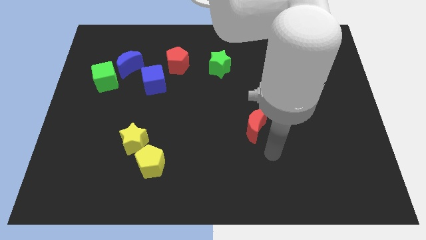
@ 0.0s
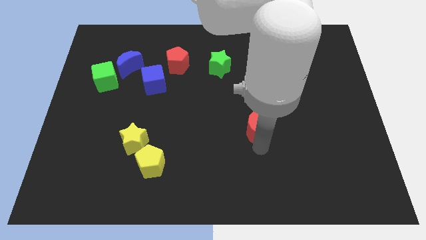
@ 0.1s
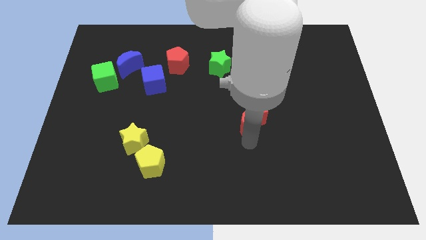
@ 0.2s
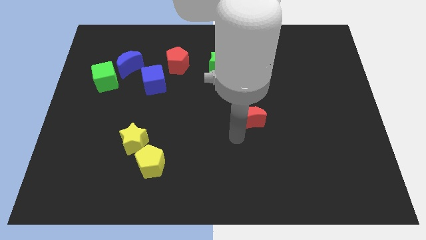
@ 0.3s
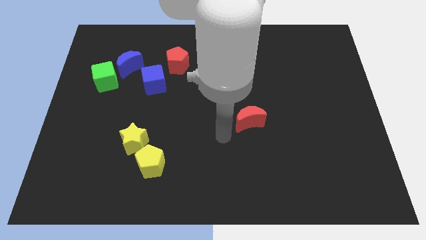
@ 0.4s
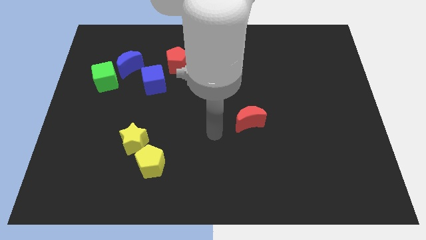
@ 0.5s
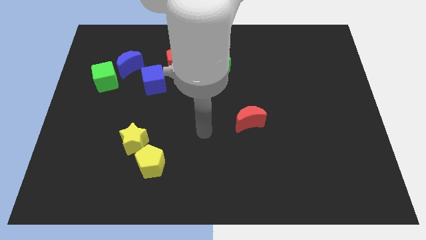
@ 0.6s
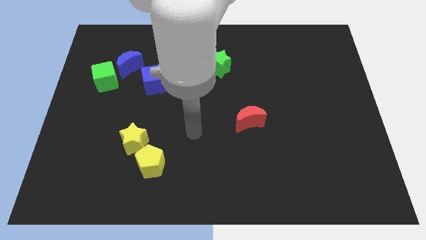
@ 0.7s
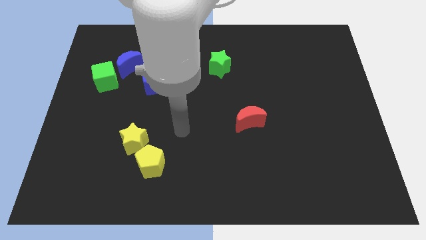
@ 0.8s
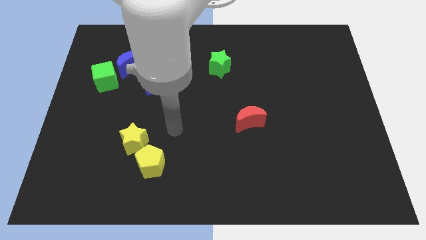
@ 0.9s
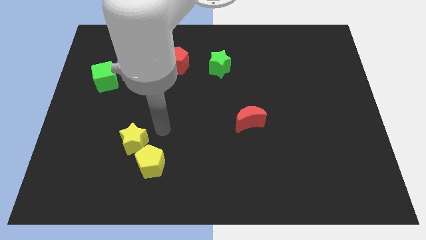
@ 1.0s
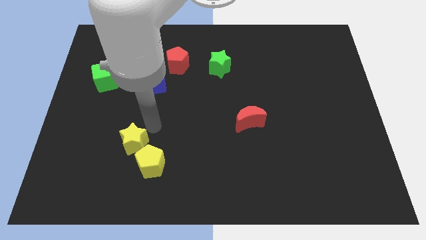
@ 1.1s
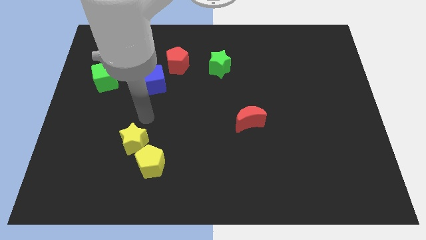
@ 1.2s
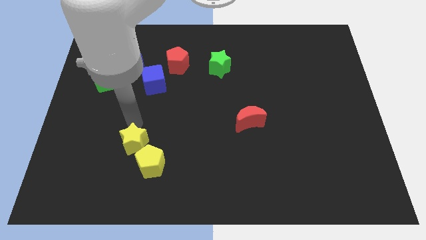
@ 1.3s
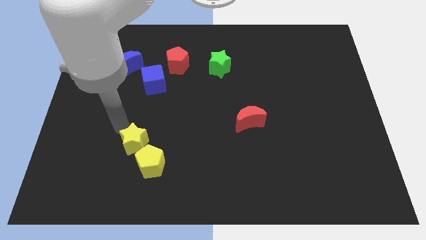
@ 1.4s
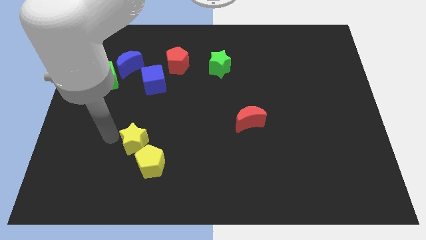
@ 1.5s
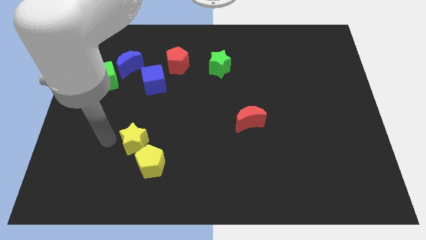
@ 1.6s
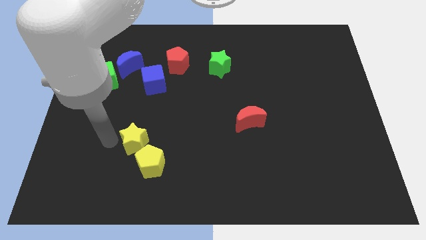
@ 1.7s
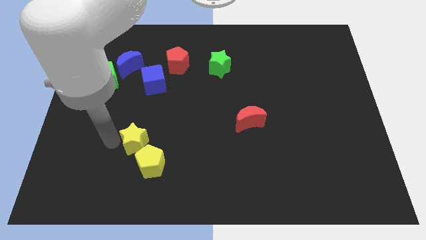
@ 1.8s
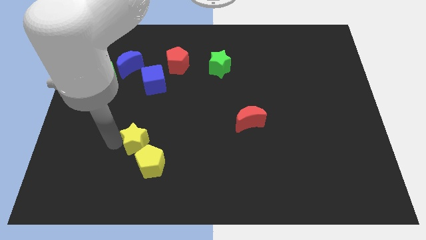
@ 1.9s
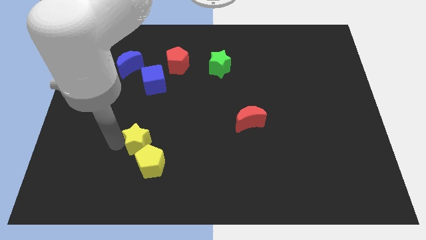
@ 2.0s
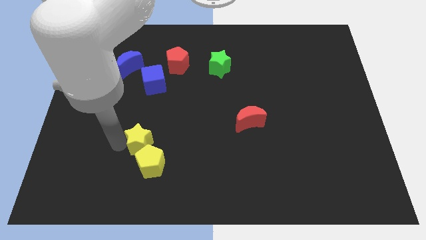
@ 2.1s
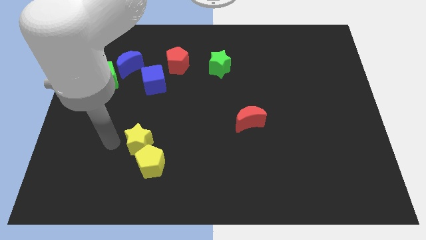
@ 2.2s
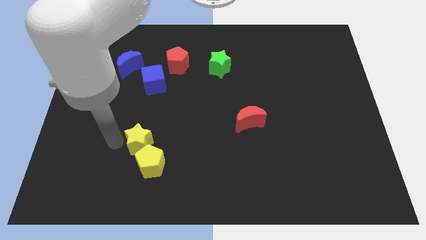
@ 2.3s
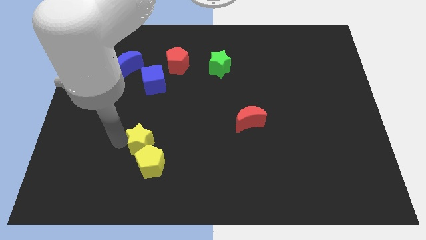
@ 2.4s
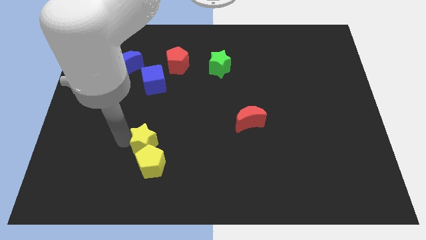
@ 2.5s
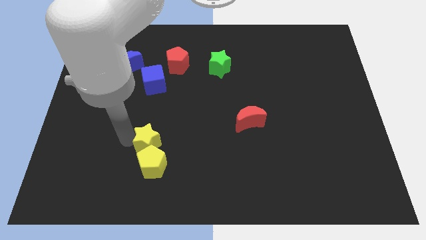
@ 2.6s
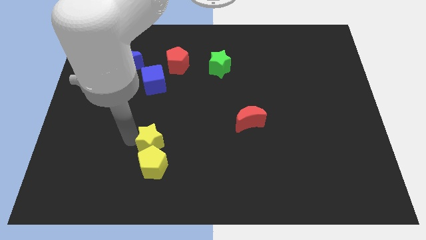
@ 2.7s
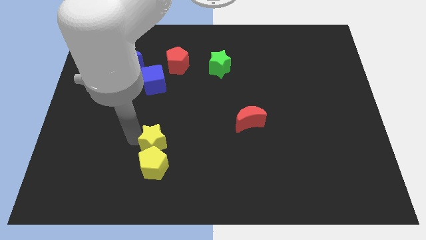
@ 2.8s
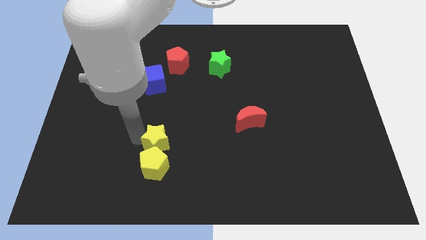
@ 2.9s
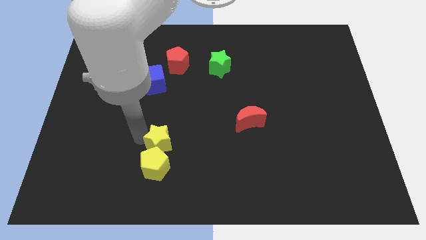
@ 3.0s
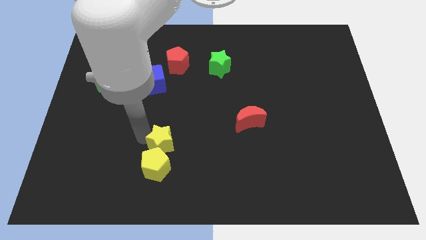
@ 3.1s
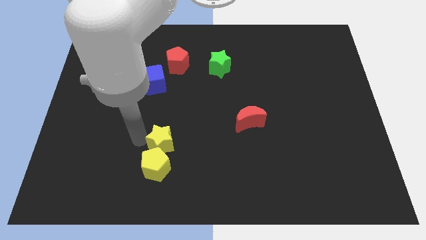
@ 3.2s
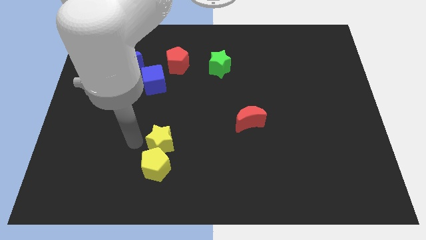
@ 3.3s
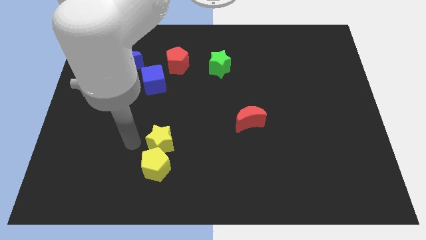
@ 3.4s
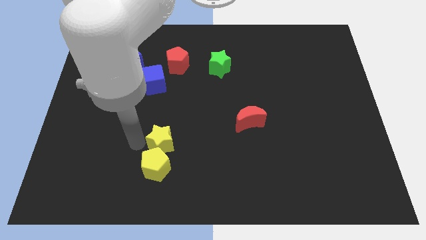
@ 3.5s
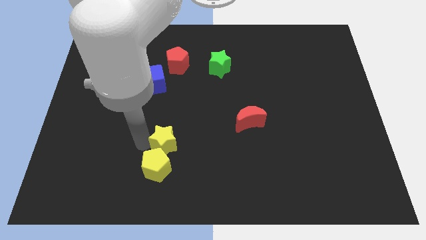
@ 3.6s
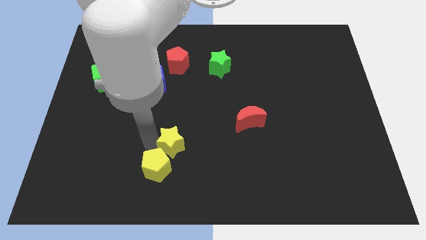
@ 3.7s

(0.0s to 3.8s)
slide the yellow star slightly right

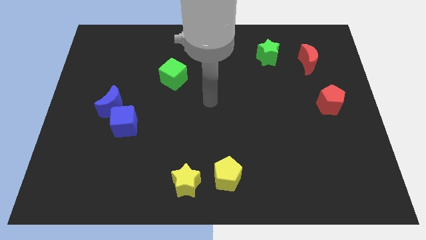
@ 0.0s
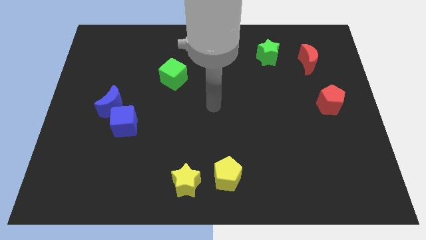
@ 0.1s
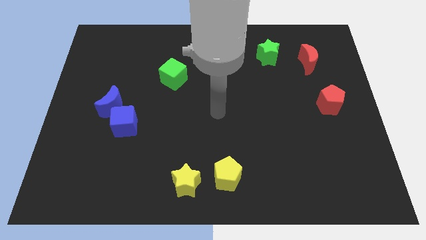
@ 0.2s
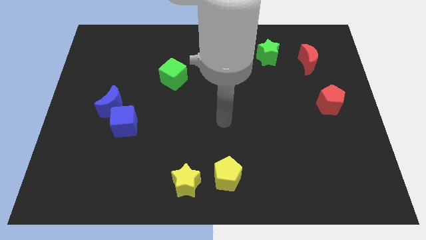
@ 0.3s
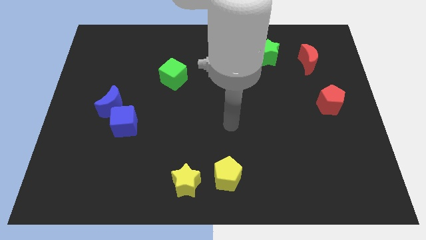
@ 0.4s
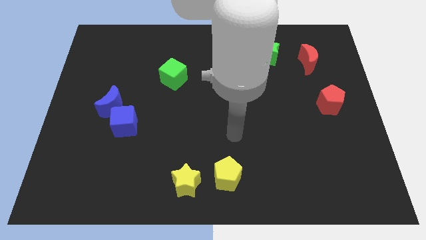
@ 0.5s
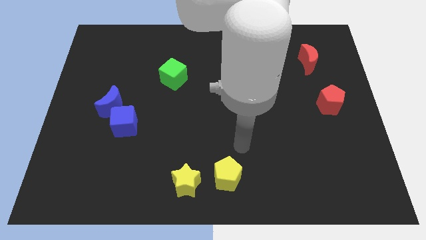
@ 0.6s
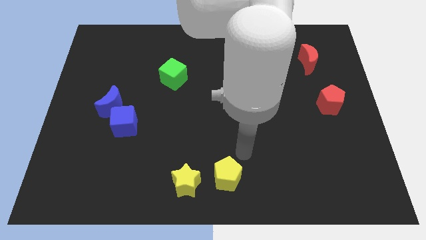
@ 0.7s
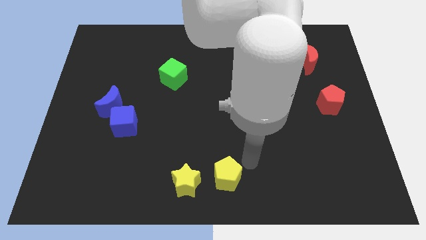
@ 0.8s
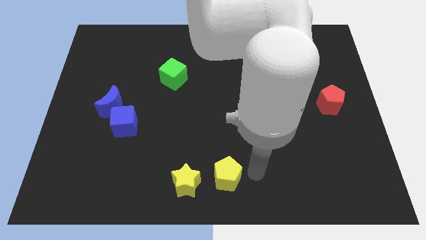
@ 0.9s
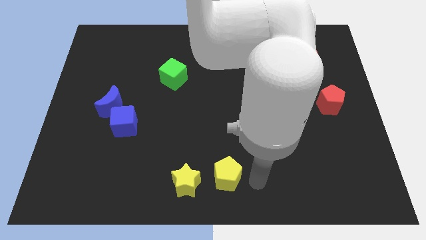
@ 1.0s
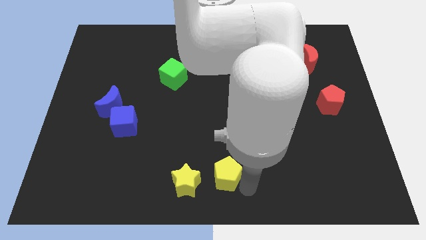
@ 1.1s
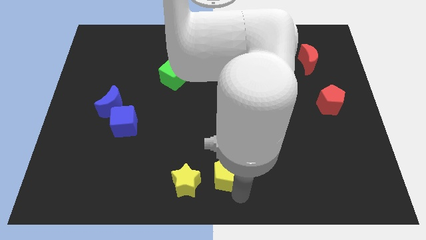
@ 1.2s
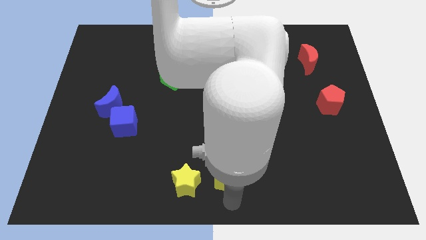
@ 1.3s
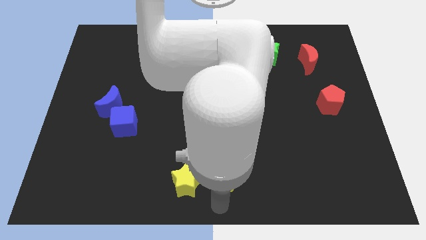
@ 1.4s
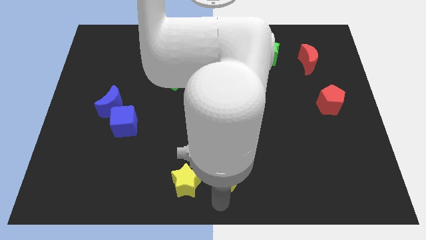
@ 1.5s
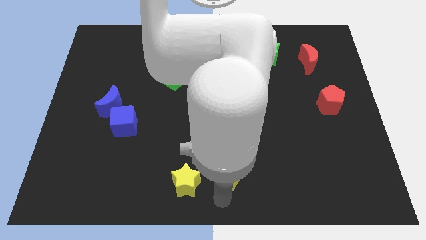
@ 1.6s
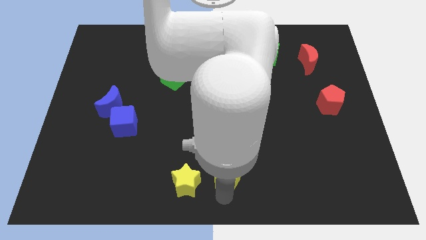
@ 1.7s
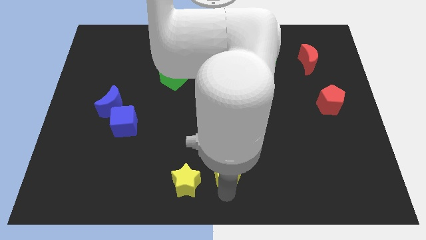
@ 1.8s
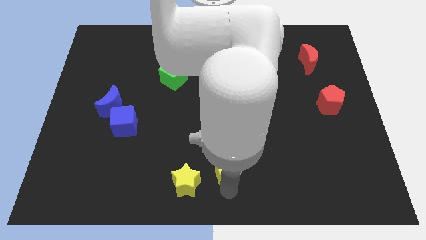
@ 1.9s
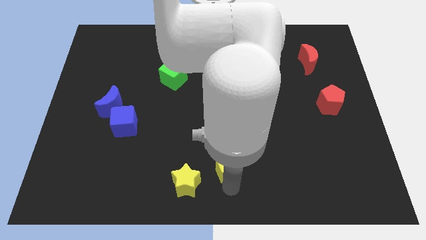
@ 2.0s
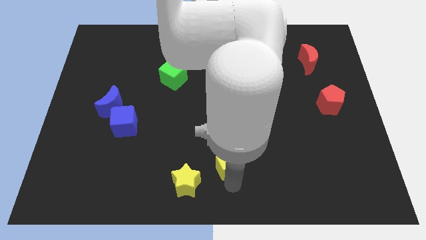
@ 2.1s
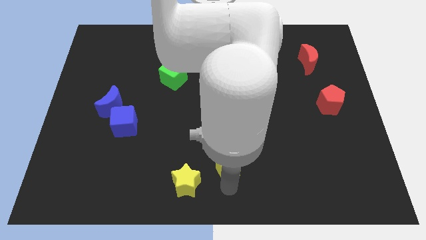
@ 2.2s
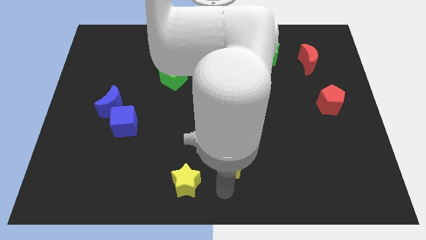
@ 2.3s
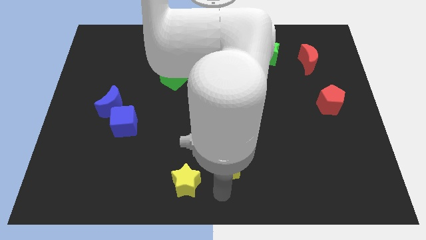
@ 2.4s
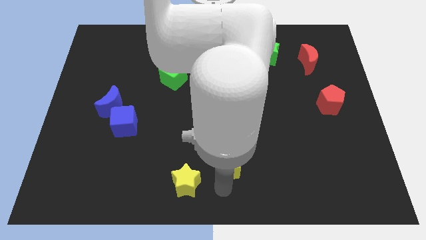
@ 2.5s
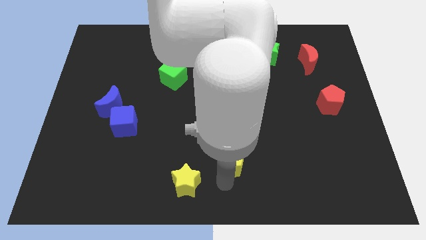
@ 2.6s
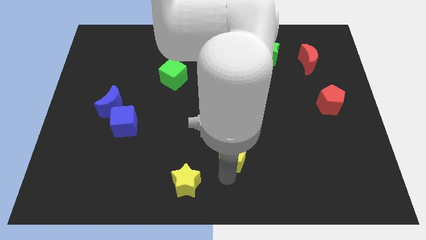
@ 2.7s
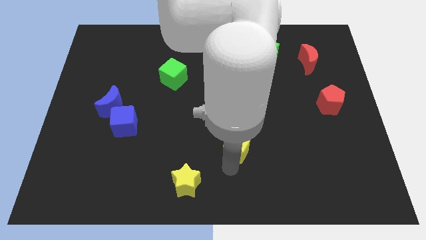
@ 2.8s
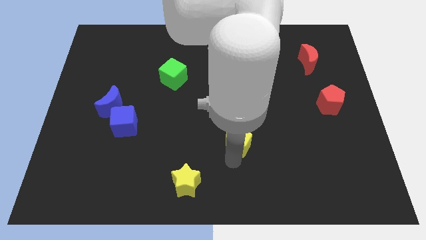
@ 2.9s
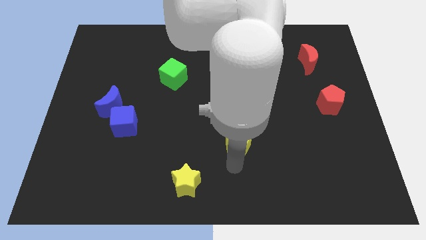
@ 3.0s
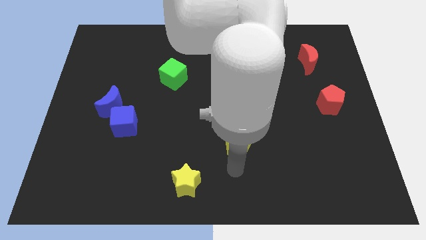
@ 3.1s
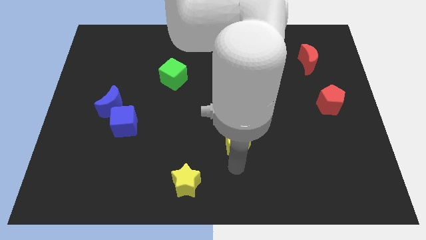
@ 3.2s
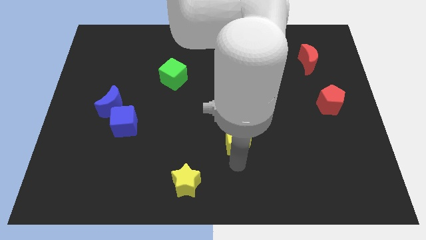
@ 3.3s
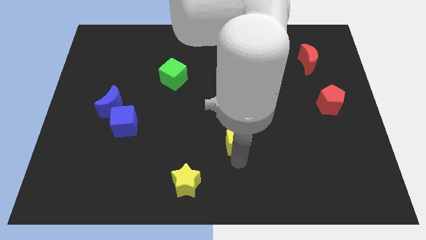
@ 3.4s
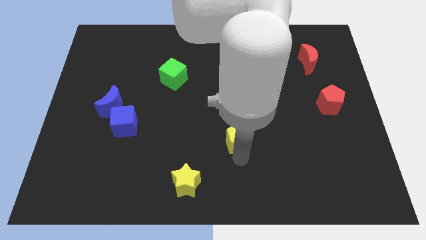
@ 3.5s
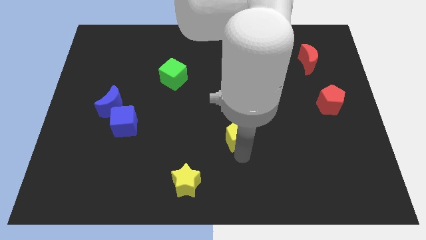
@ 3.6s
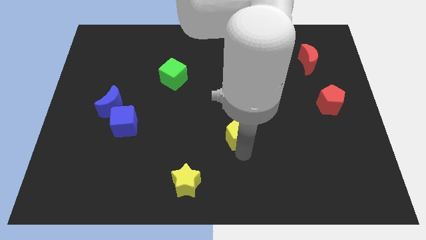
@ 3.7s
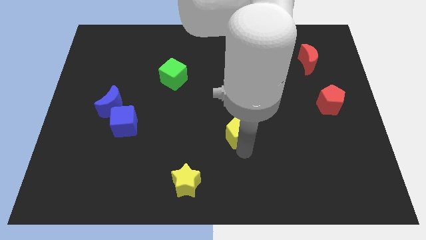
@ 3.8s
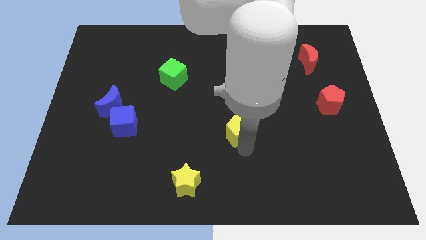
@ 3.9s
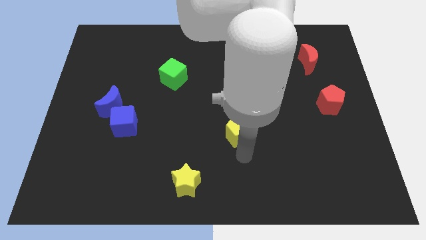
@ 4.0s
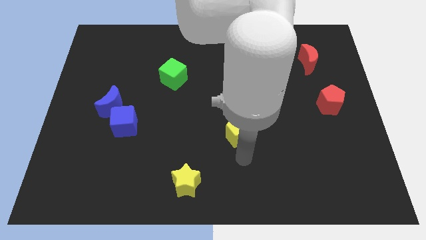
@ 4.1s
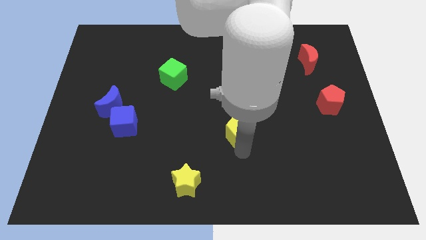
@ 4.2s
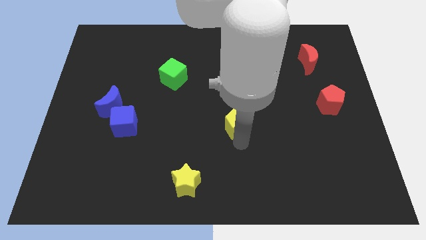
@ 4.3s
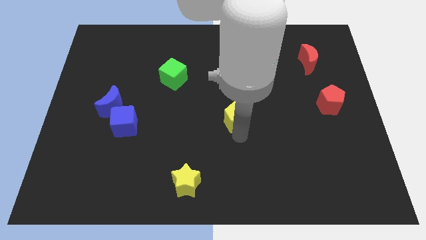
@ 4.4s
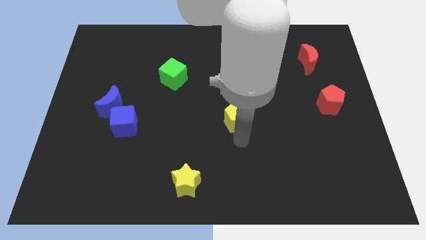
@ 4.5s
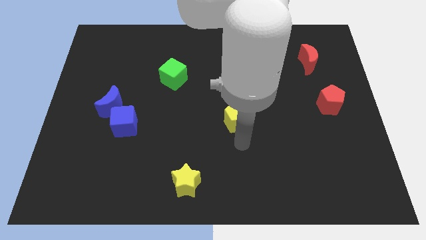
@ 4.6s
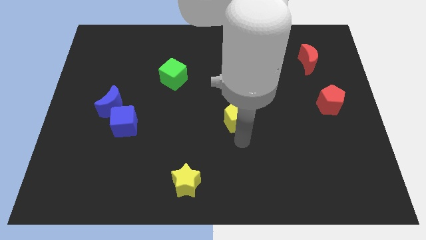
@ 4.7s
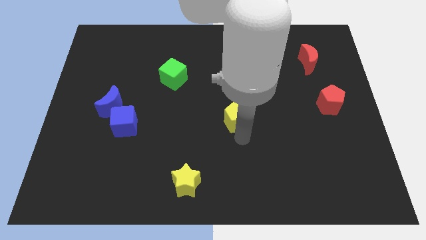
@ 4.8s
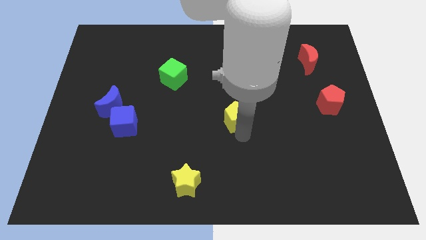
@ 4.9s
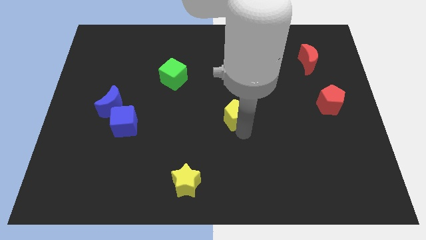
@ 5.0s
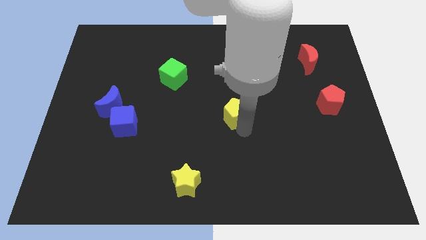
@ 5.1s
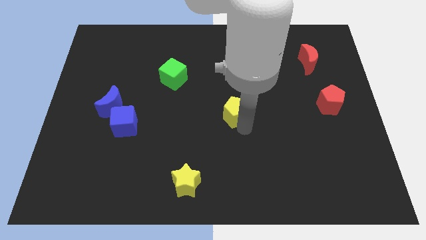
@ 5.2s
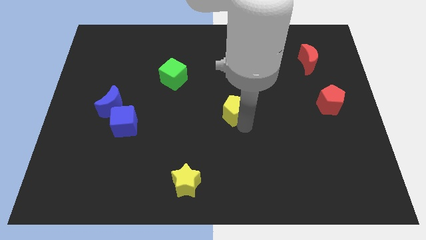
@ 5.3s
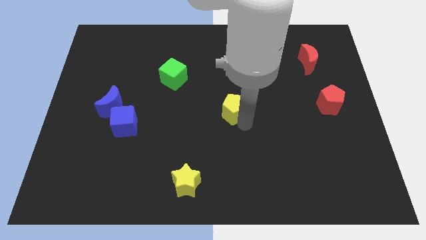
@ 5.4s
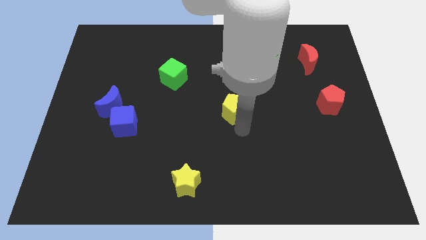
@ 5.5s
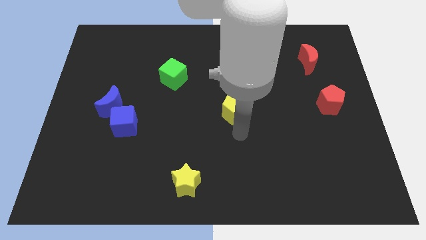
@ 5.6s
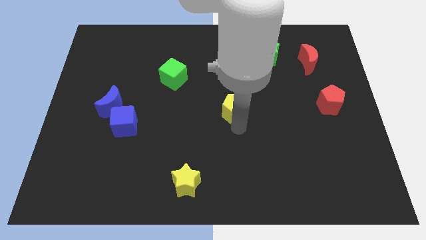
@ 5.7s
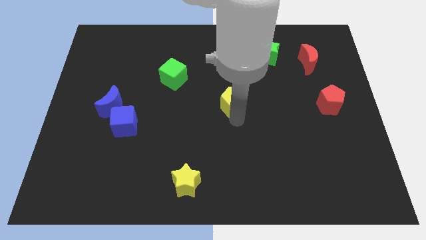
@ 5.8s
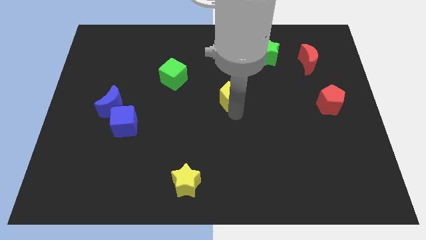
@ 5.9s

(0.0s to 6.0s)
slide the yellow pentagon upwards
